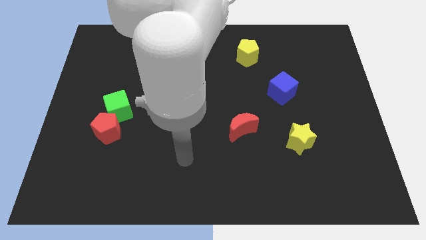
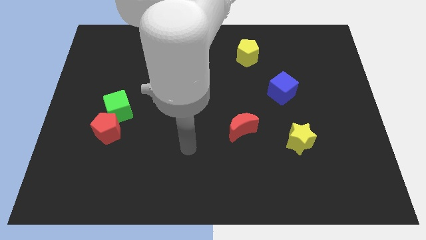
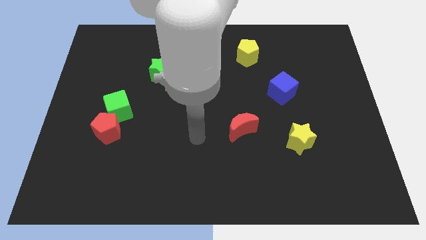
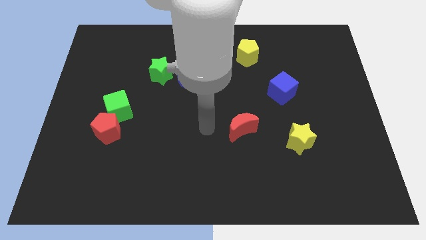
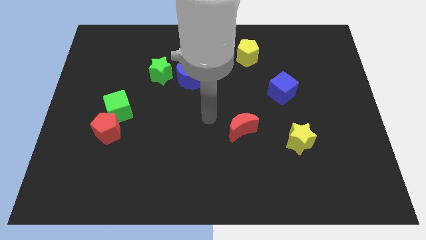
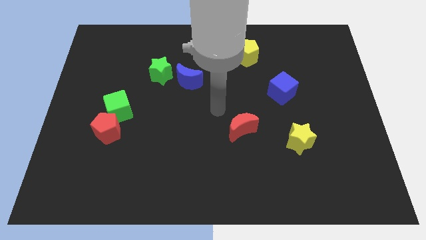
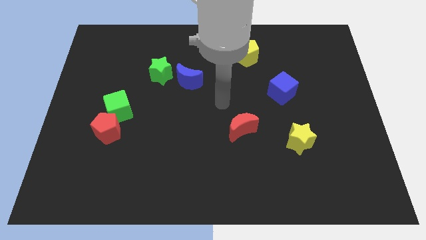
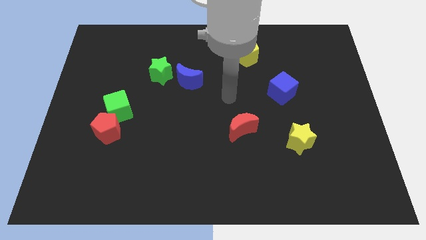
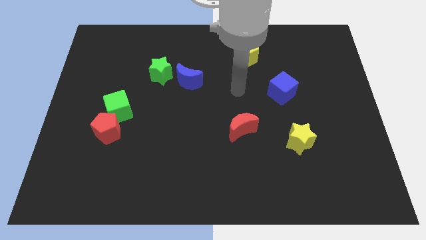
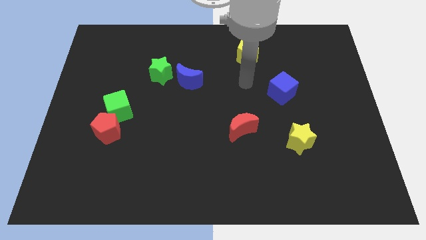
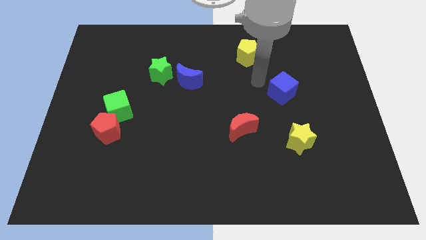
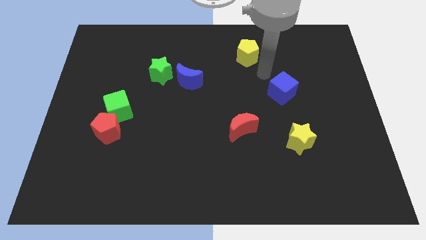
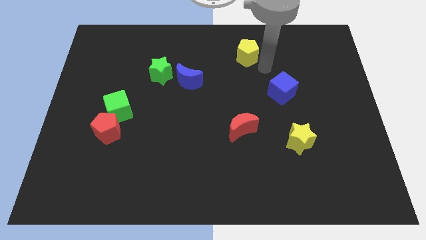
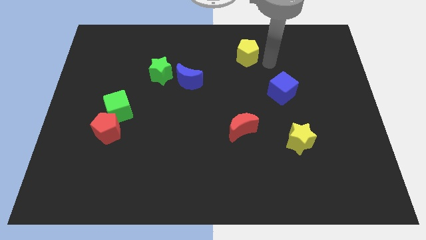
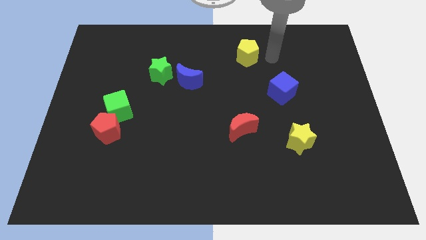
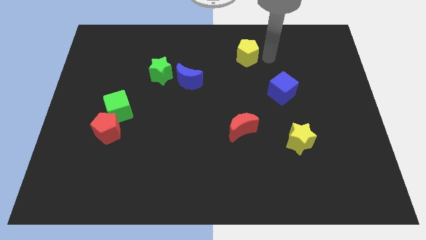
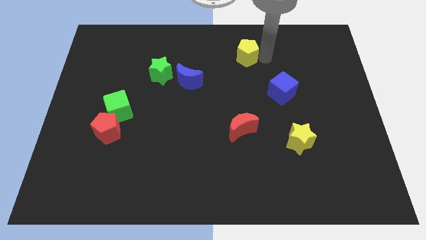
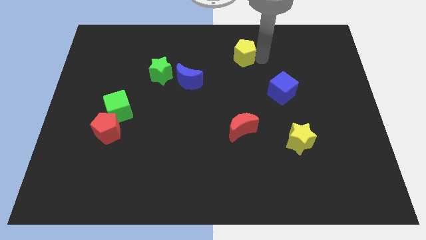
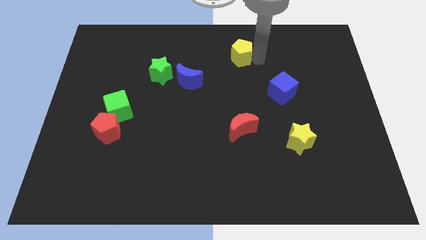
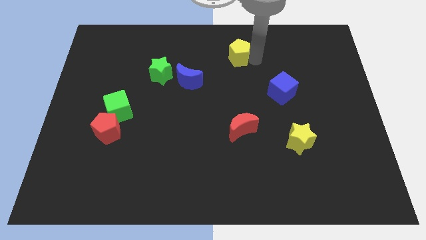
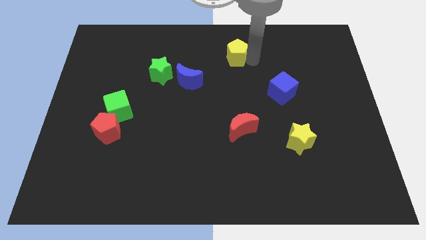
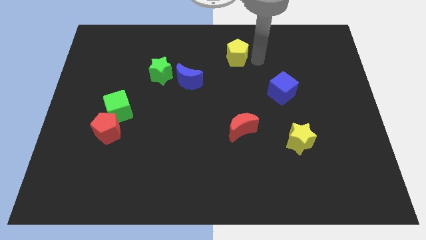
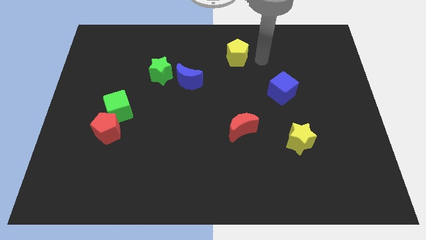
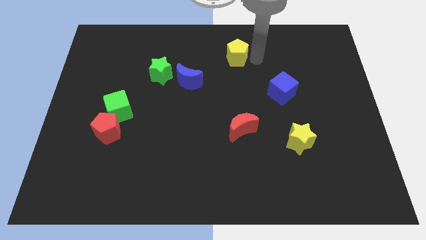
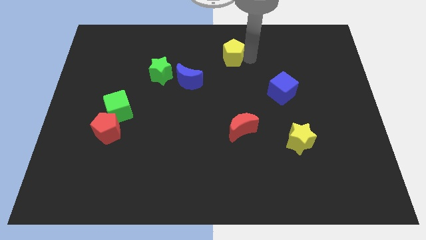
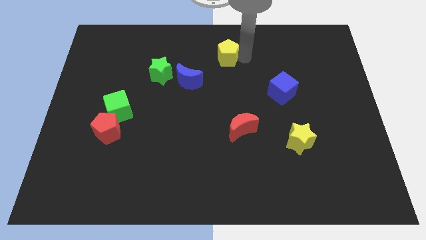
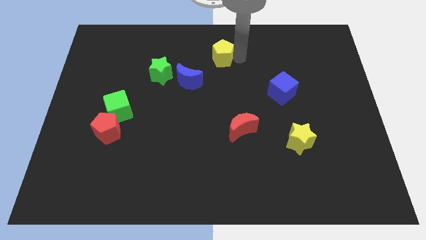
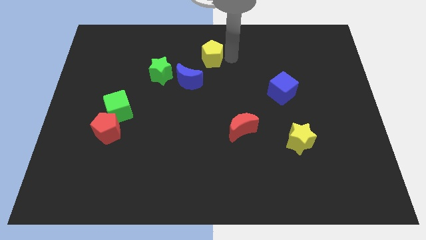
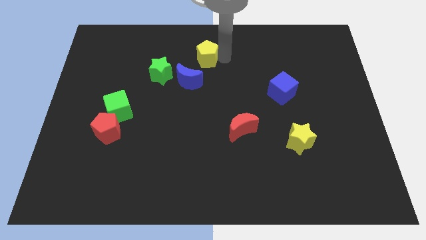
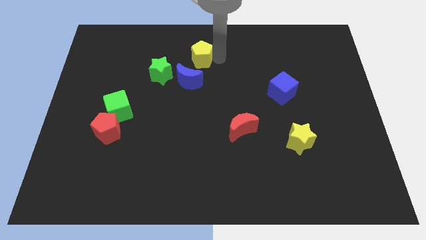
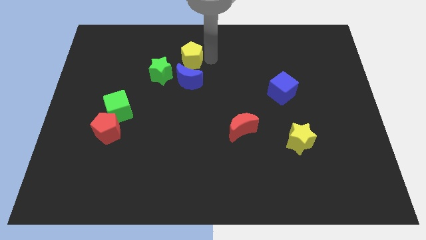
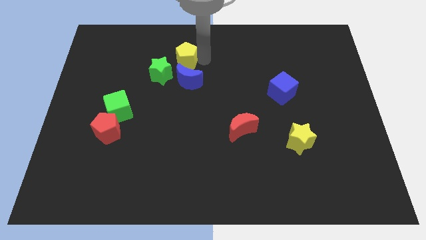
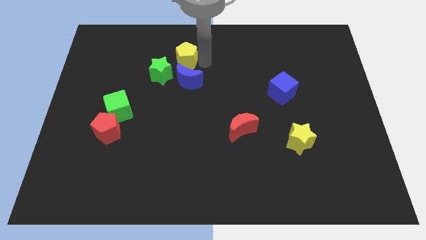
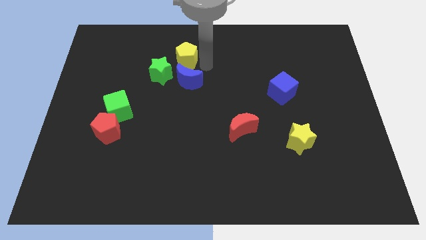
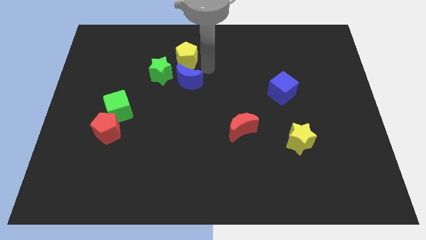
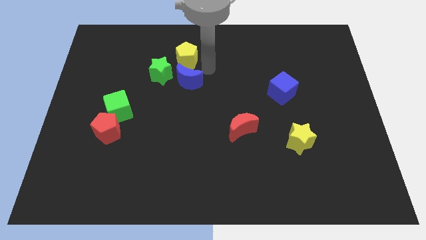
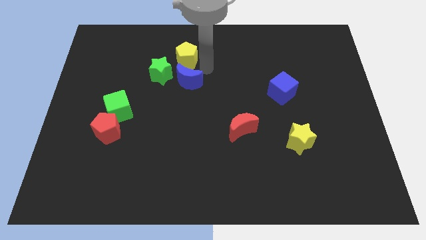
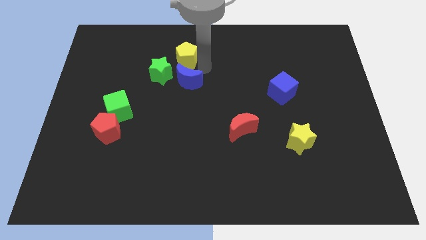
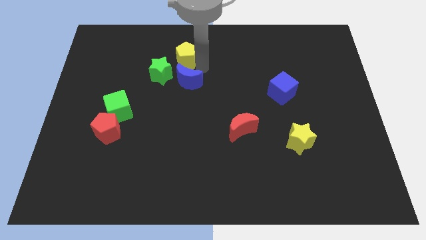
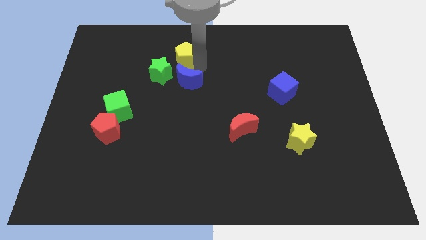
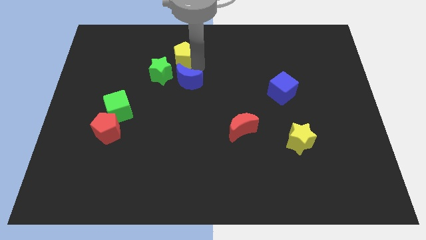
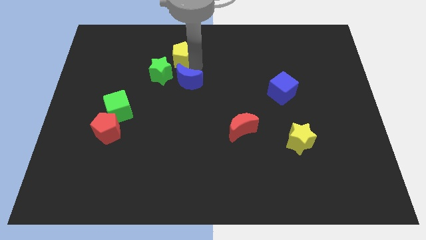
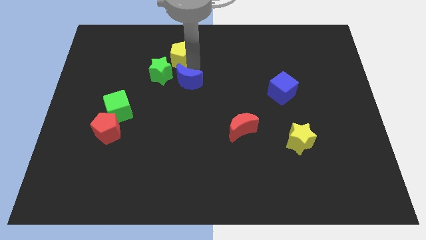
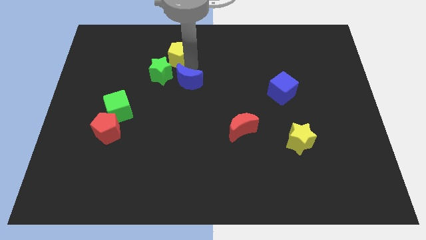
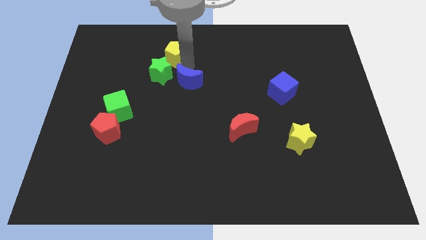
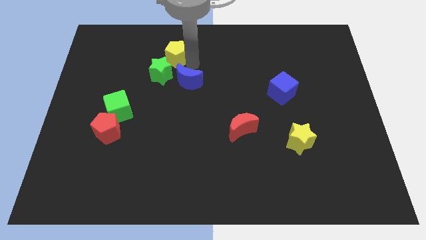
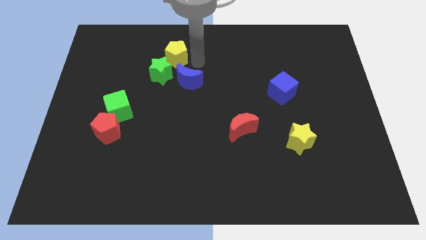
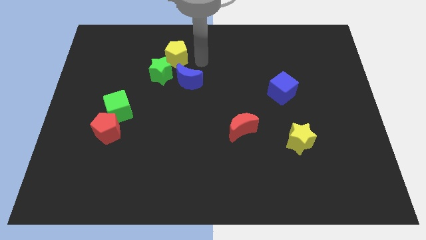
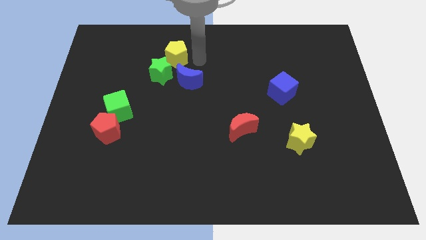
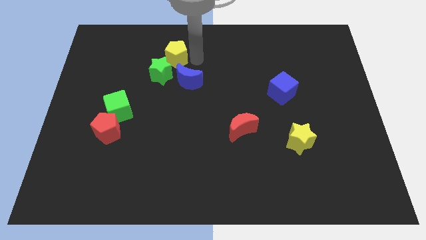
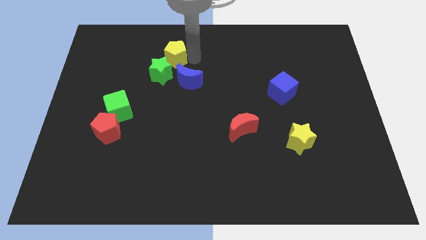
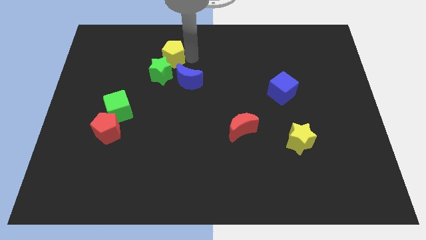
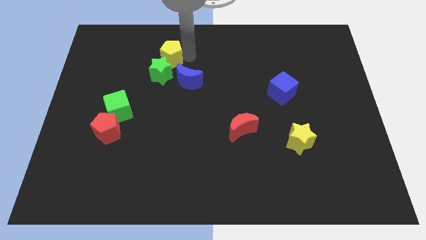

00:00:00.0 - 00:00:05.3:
move the yellow pentagon to the left

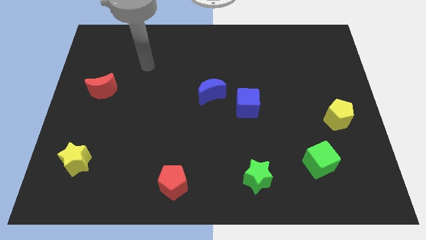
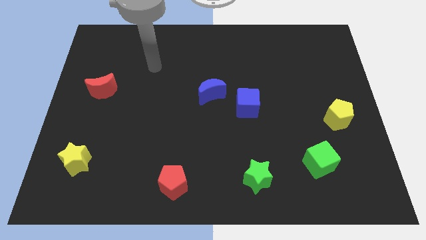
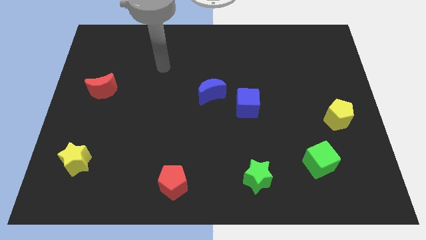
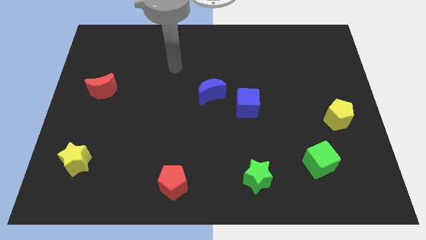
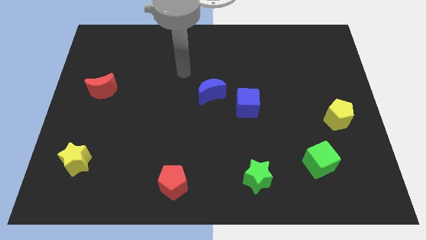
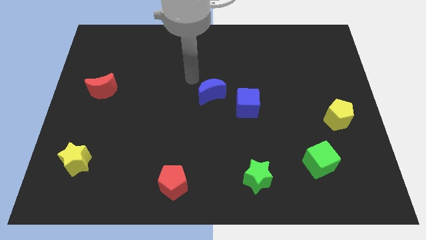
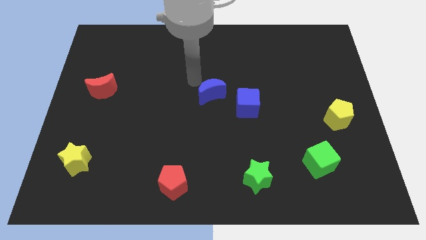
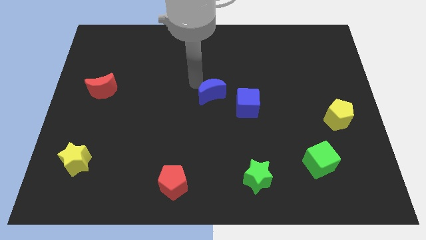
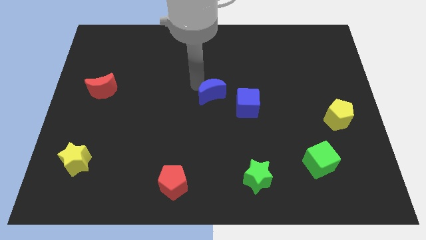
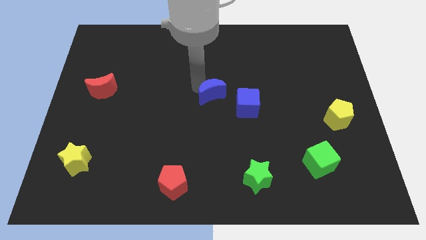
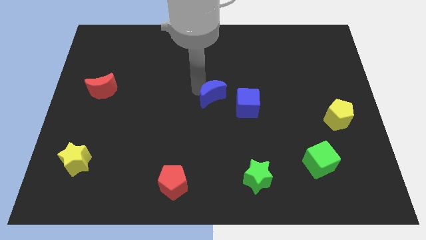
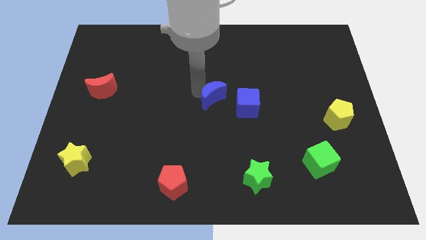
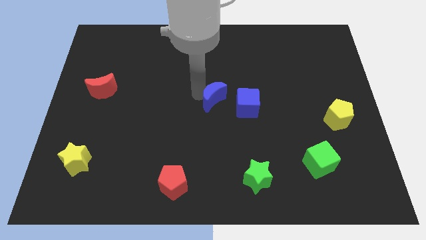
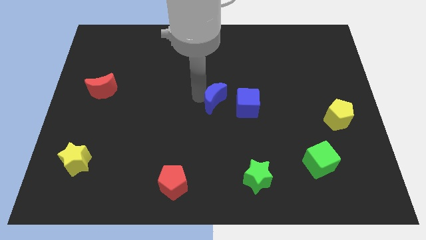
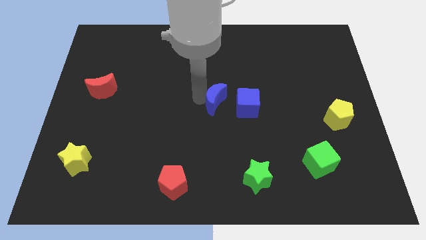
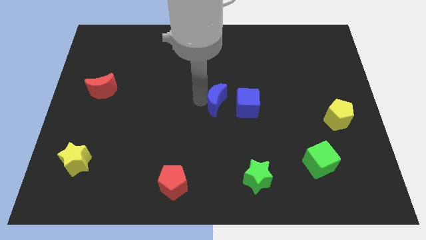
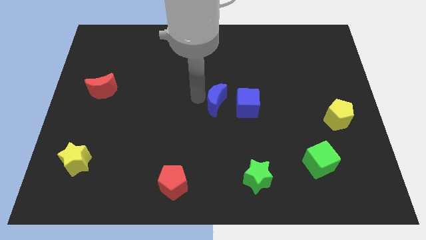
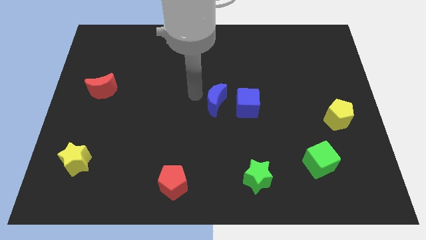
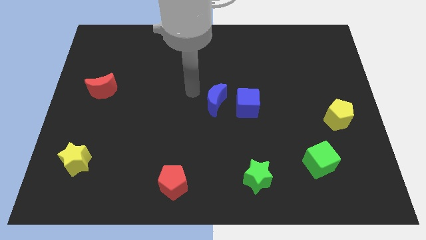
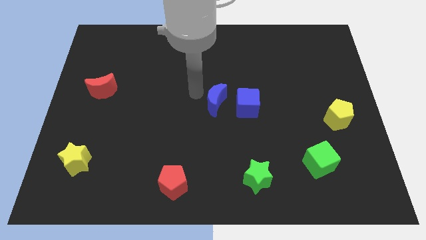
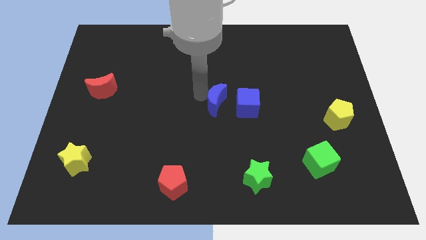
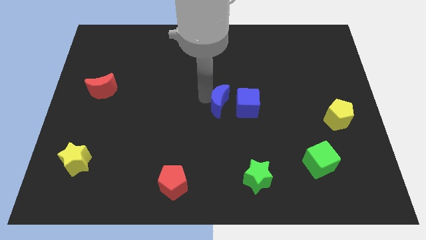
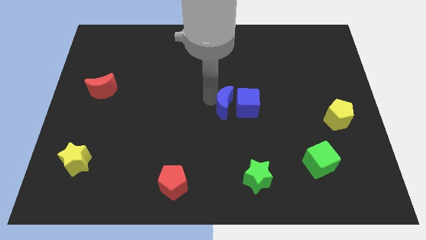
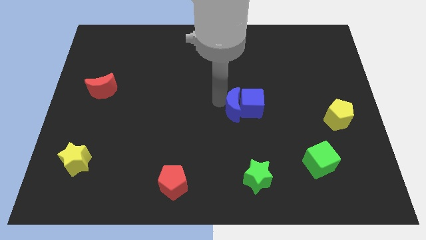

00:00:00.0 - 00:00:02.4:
slightly push the blue moon downwards and then right

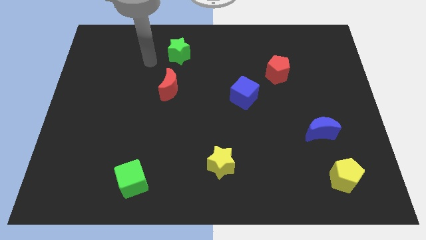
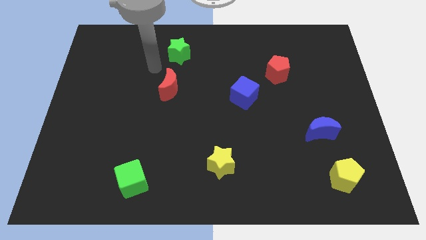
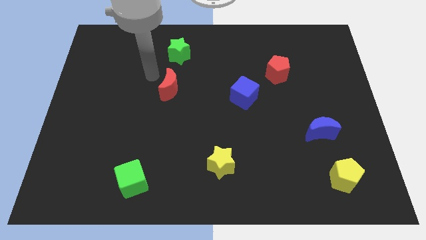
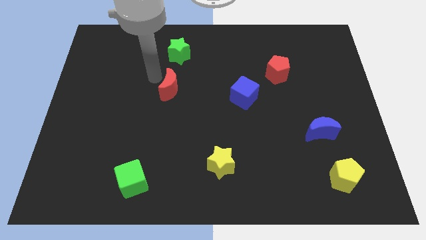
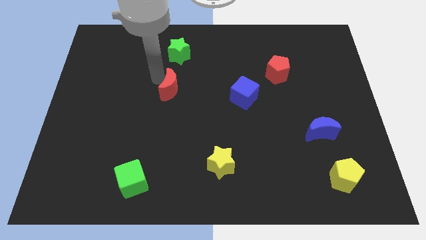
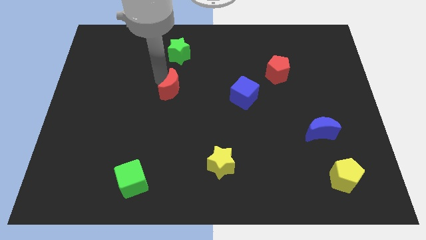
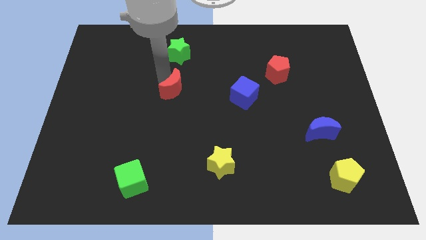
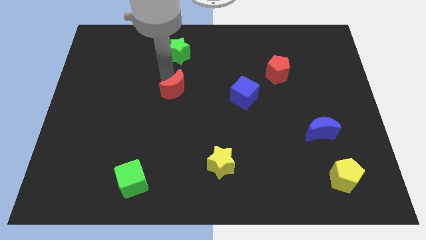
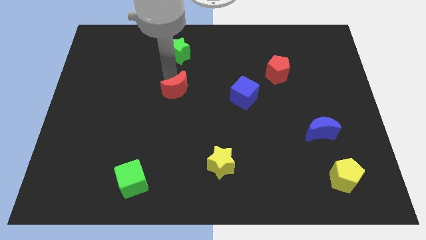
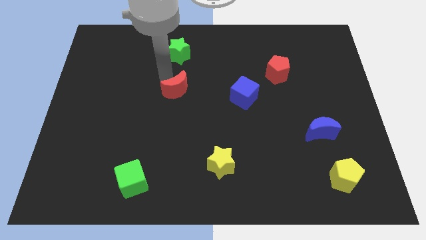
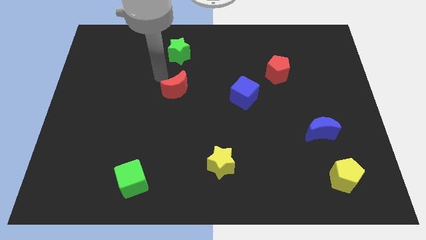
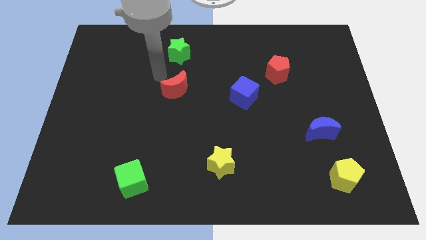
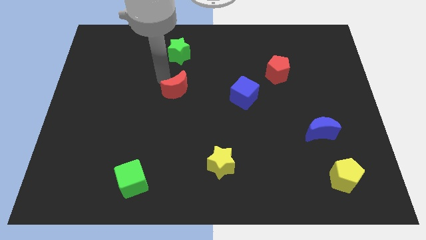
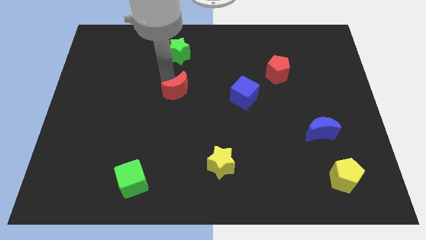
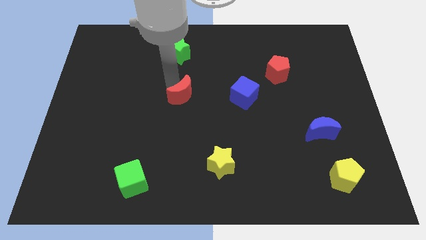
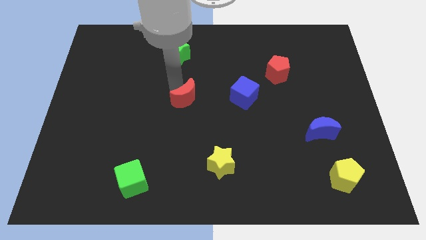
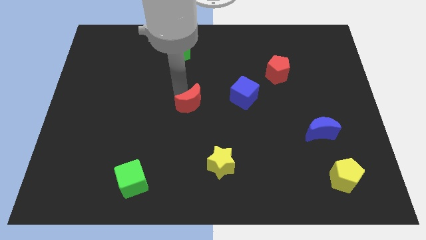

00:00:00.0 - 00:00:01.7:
slide the red moon diagonally down and right a little
